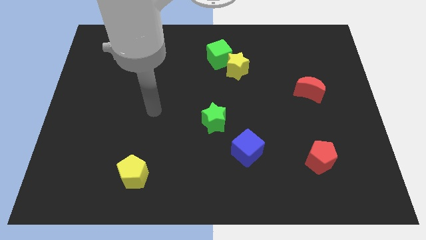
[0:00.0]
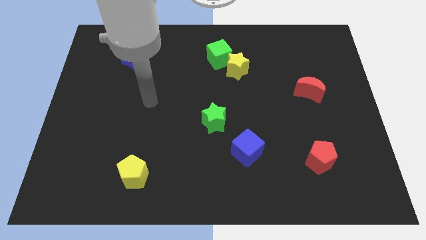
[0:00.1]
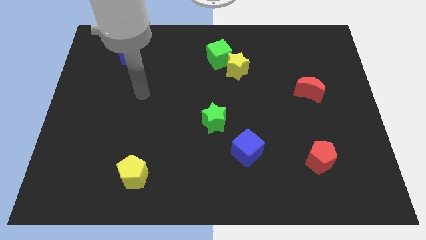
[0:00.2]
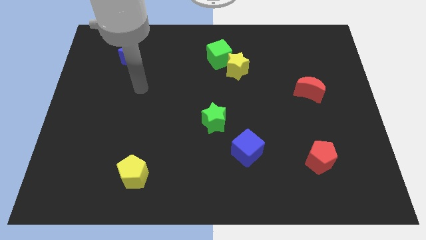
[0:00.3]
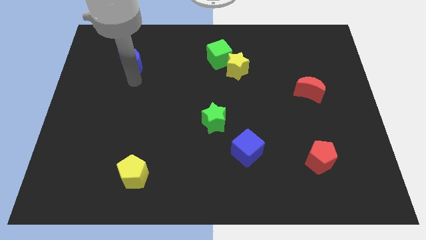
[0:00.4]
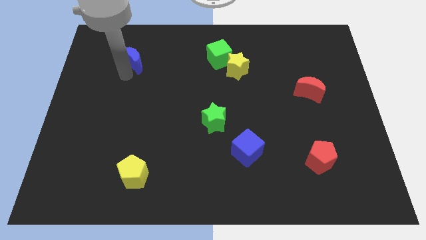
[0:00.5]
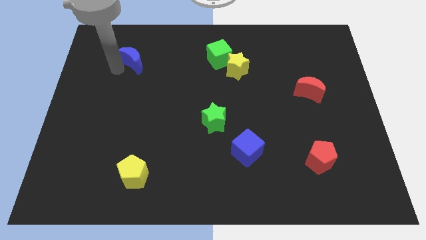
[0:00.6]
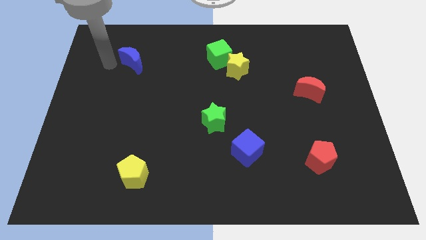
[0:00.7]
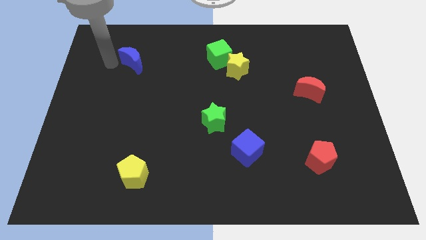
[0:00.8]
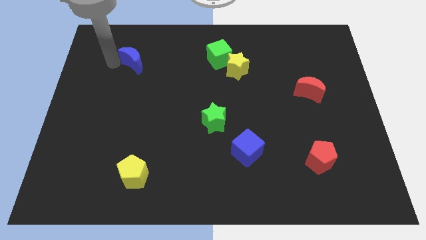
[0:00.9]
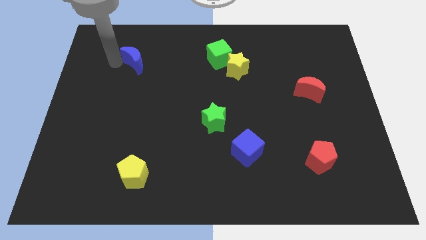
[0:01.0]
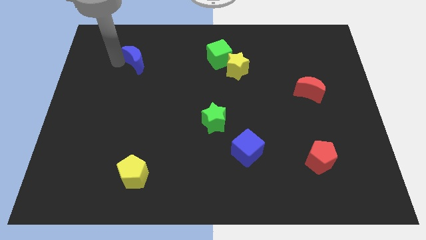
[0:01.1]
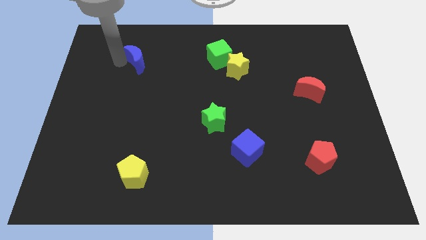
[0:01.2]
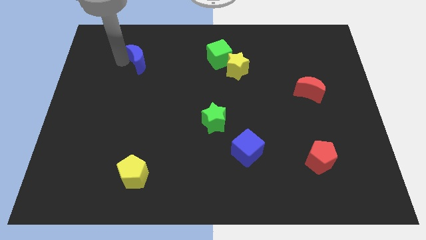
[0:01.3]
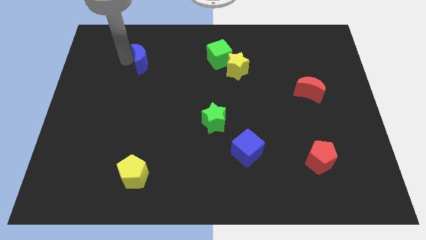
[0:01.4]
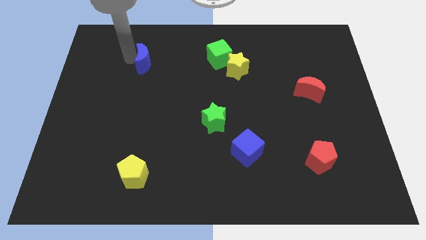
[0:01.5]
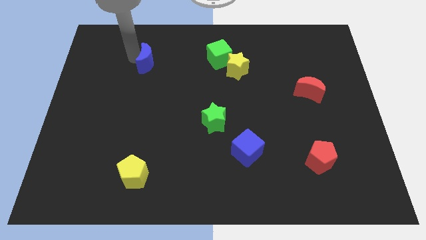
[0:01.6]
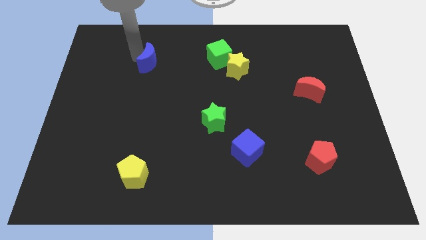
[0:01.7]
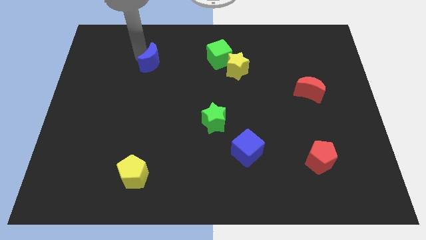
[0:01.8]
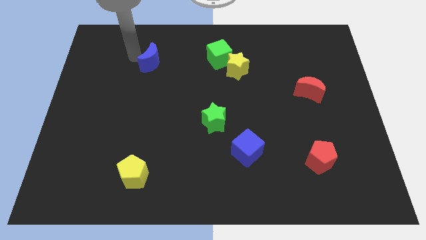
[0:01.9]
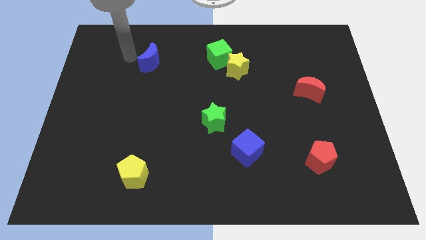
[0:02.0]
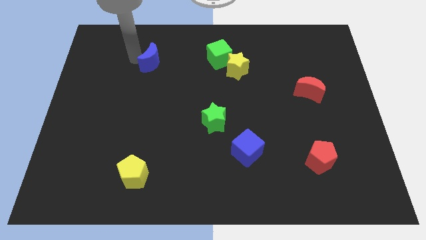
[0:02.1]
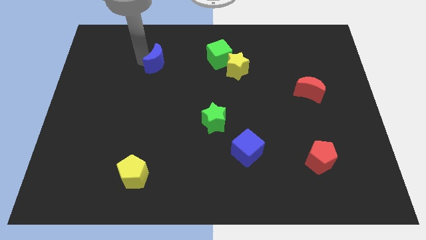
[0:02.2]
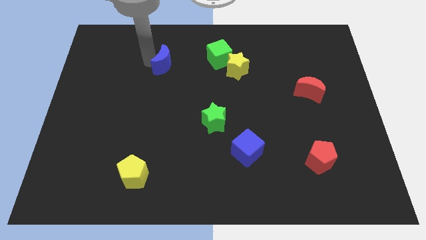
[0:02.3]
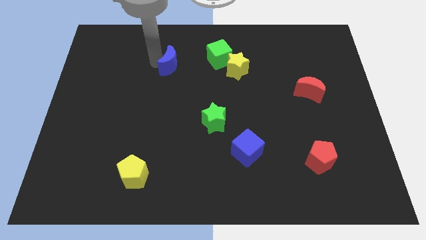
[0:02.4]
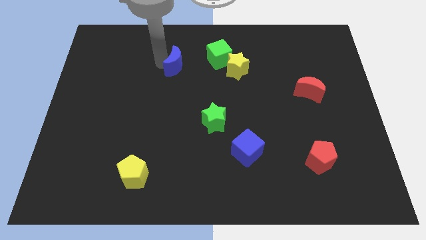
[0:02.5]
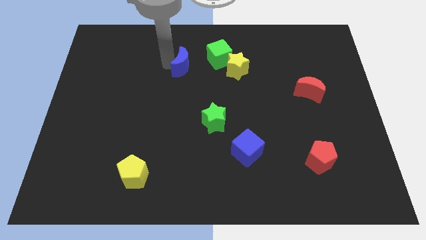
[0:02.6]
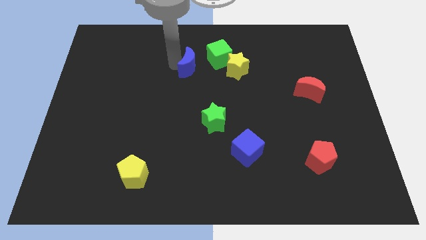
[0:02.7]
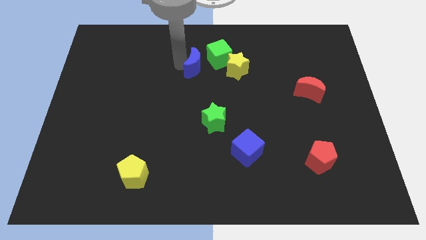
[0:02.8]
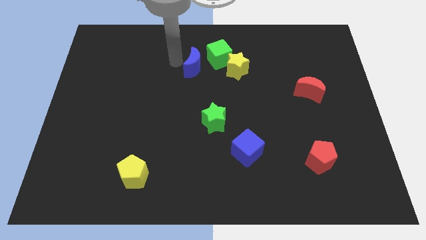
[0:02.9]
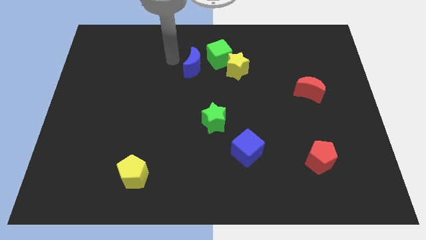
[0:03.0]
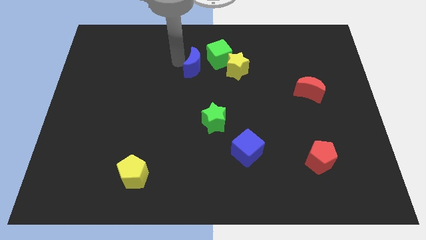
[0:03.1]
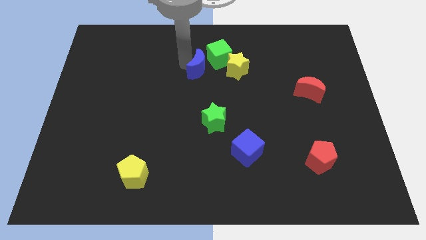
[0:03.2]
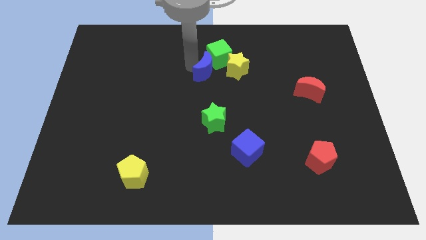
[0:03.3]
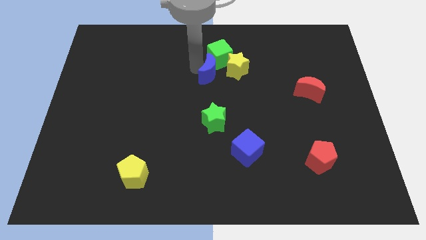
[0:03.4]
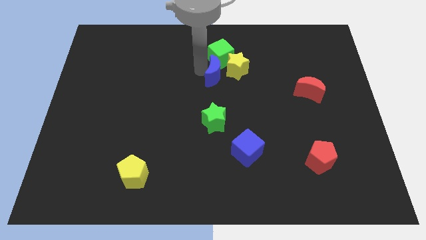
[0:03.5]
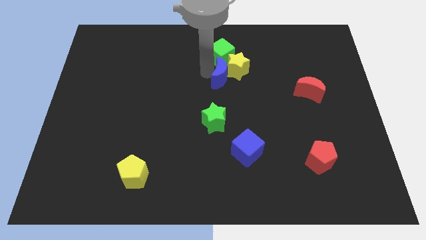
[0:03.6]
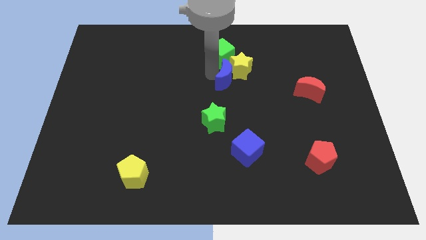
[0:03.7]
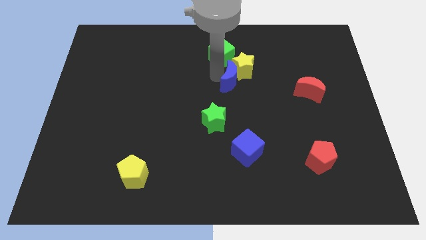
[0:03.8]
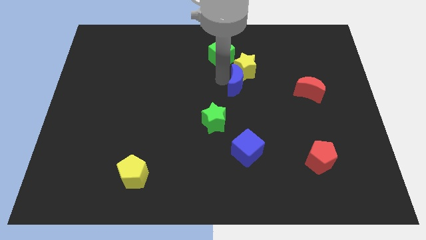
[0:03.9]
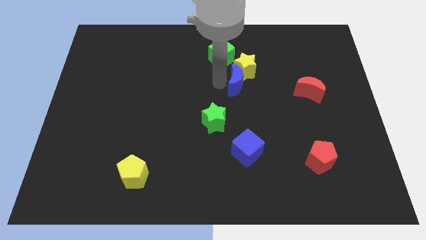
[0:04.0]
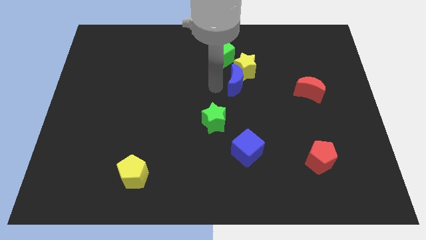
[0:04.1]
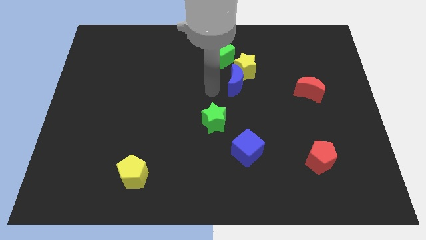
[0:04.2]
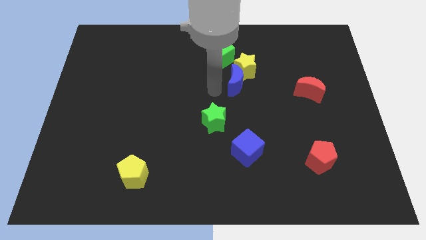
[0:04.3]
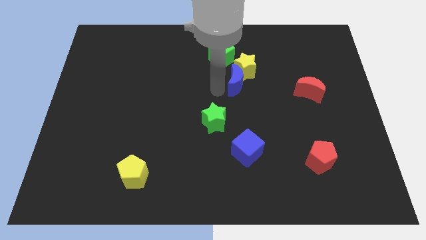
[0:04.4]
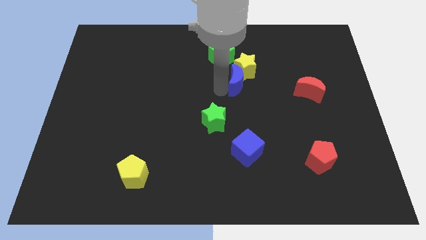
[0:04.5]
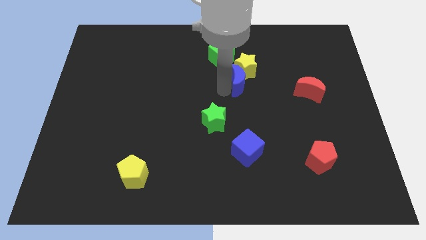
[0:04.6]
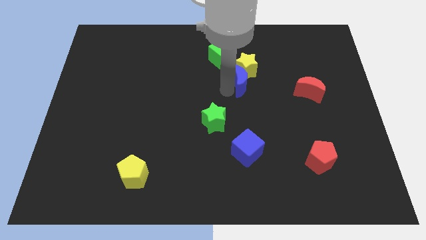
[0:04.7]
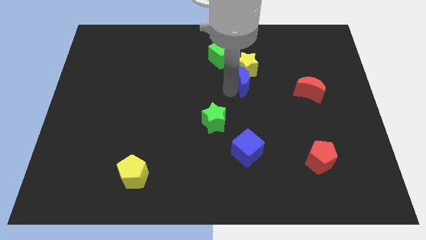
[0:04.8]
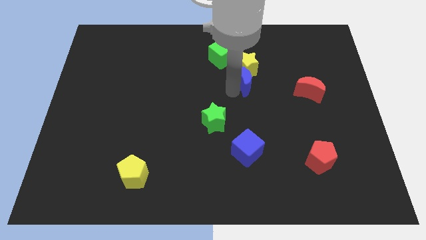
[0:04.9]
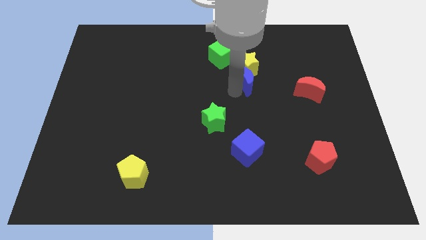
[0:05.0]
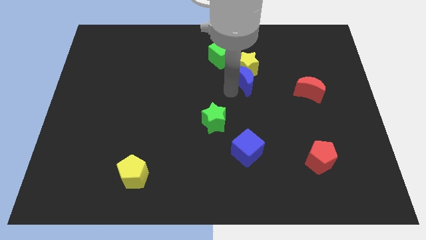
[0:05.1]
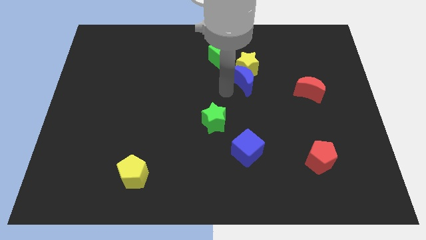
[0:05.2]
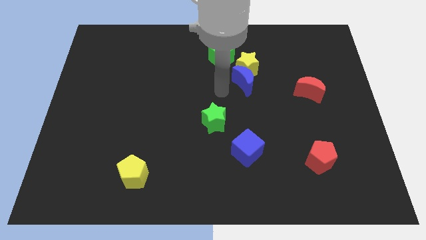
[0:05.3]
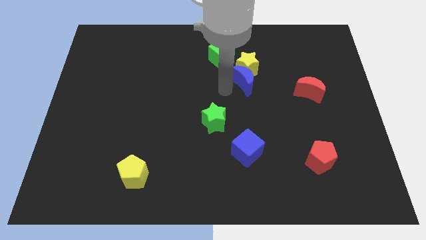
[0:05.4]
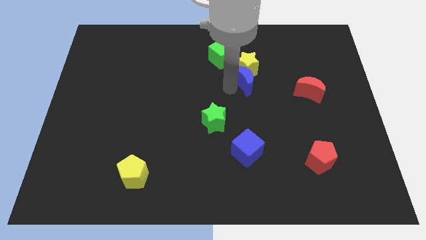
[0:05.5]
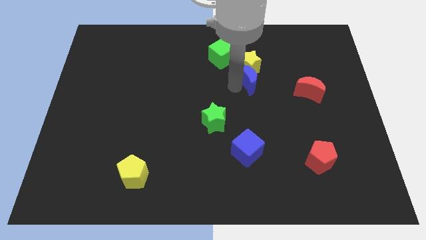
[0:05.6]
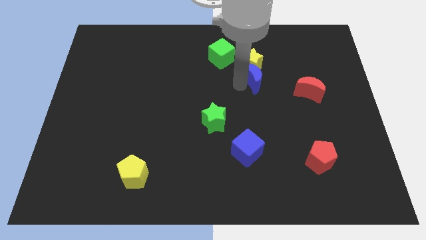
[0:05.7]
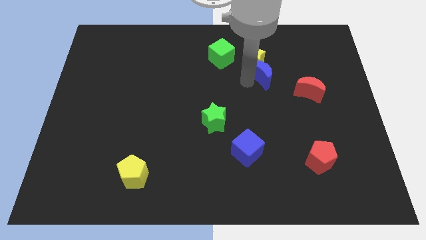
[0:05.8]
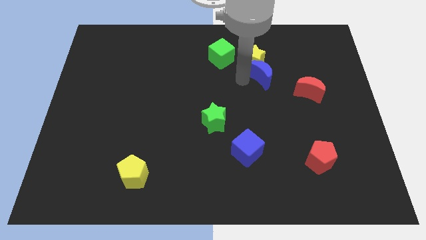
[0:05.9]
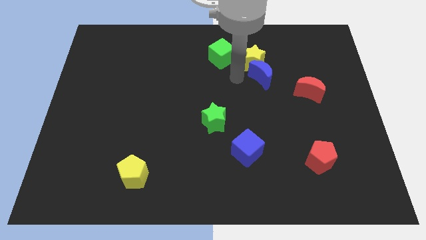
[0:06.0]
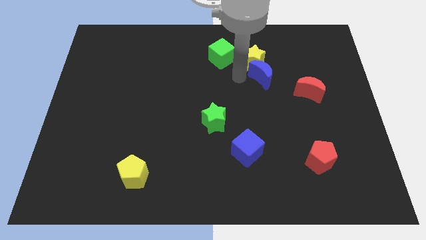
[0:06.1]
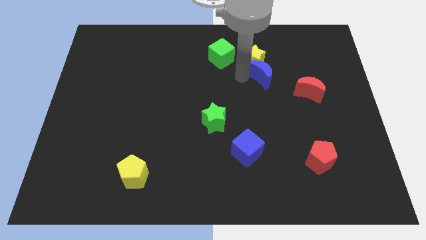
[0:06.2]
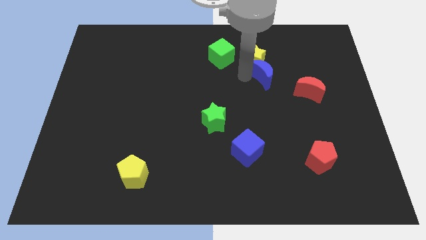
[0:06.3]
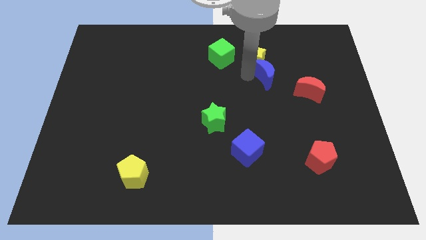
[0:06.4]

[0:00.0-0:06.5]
move the blue moon to the top left side of the red moon

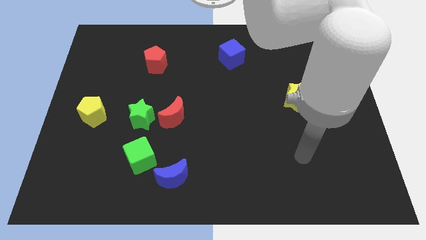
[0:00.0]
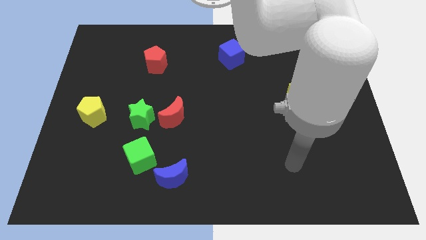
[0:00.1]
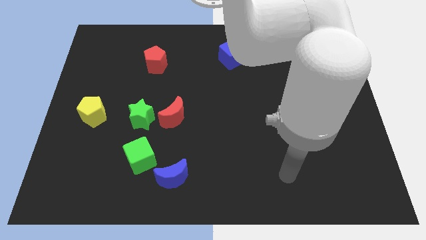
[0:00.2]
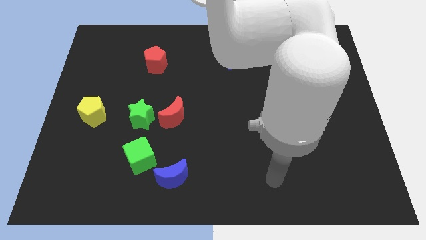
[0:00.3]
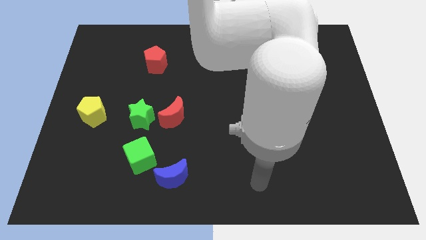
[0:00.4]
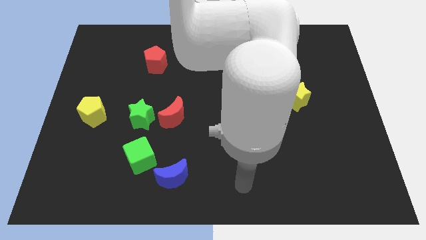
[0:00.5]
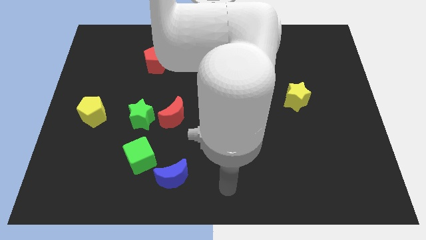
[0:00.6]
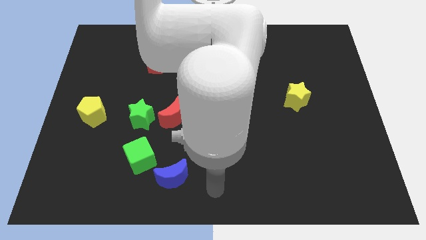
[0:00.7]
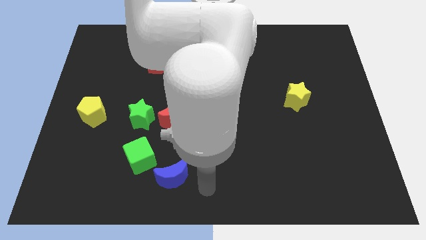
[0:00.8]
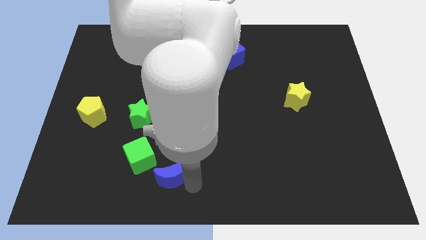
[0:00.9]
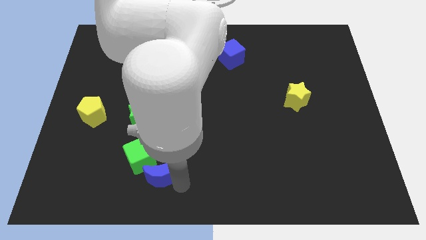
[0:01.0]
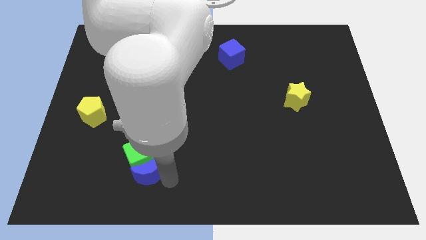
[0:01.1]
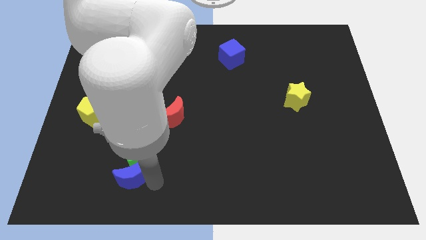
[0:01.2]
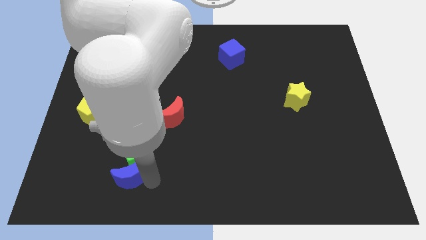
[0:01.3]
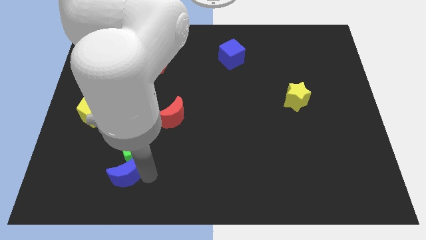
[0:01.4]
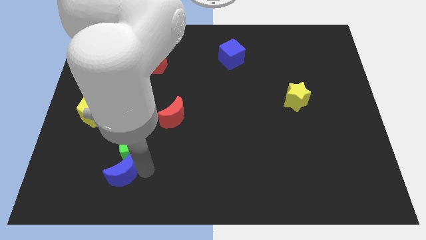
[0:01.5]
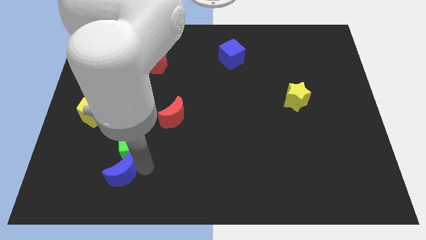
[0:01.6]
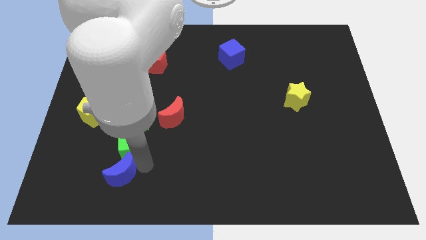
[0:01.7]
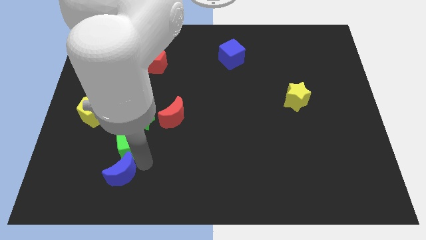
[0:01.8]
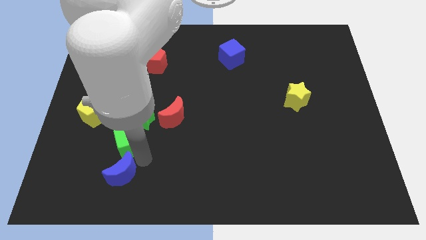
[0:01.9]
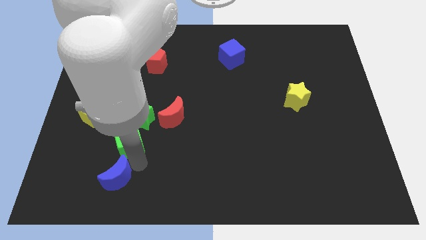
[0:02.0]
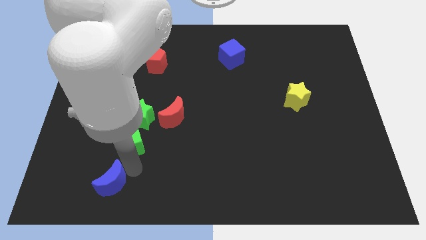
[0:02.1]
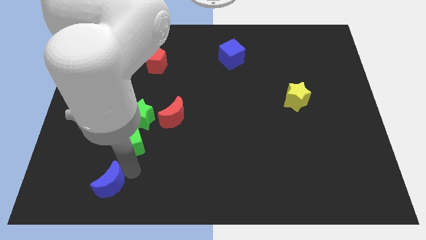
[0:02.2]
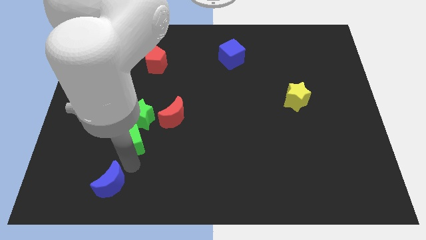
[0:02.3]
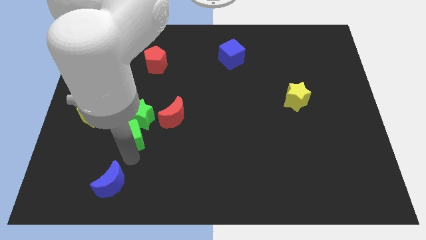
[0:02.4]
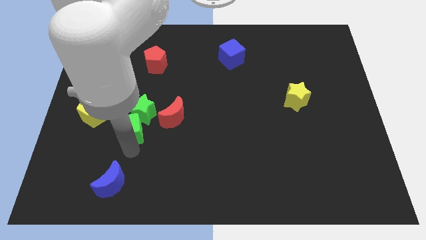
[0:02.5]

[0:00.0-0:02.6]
put the green cube left of the red moon
